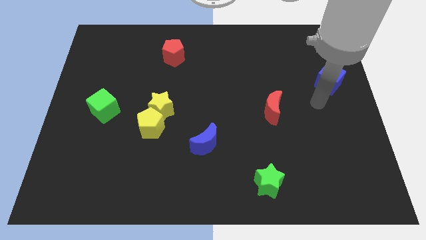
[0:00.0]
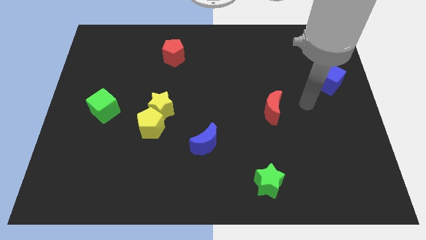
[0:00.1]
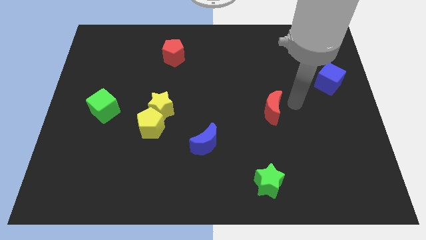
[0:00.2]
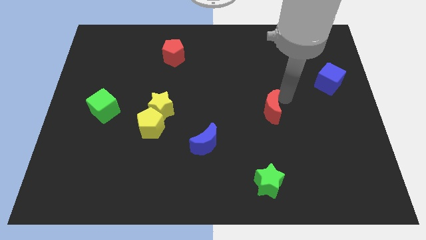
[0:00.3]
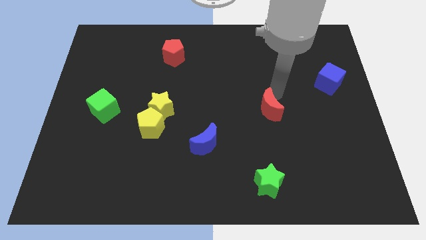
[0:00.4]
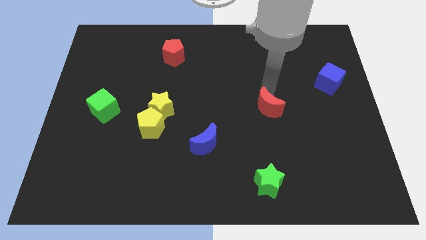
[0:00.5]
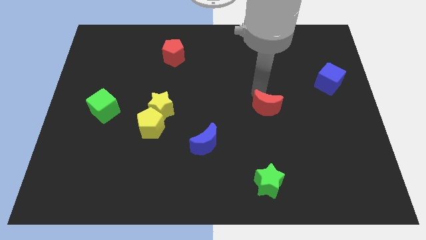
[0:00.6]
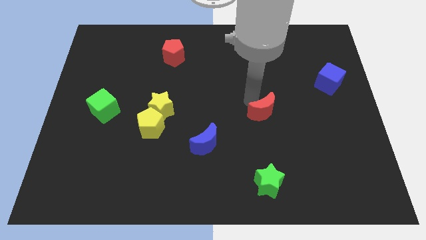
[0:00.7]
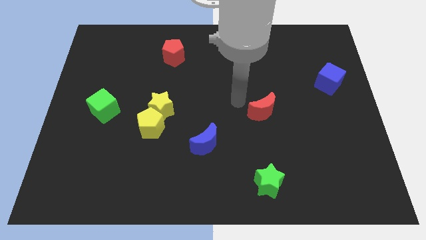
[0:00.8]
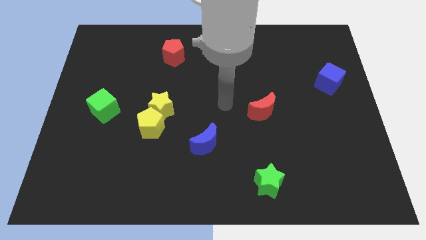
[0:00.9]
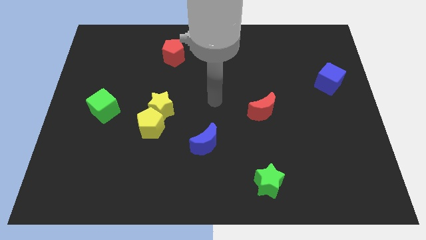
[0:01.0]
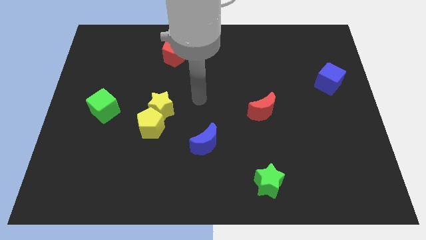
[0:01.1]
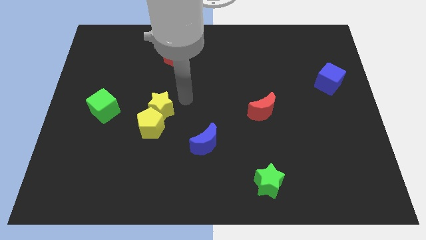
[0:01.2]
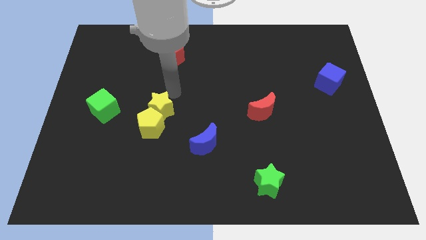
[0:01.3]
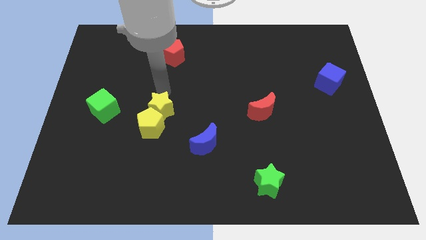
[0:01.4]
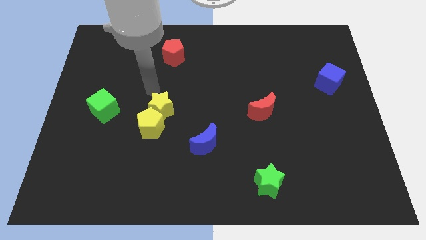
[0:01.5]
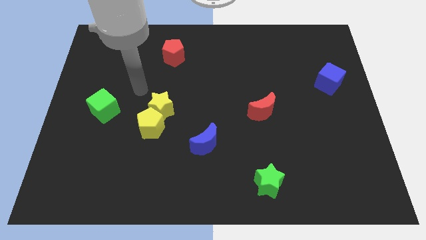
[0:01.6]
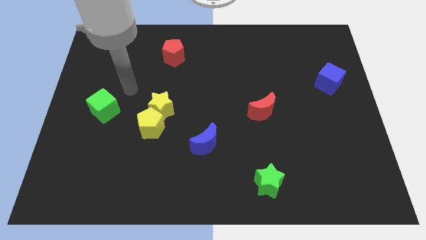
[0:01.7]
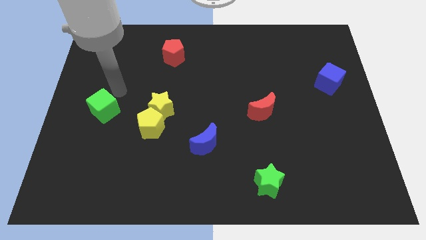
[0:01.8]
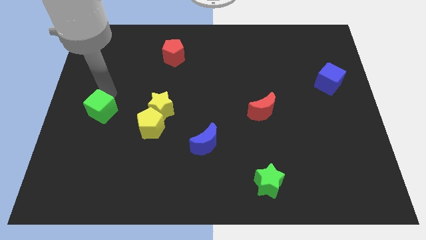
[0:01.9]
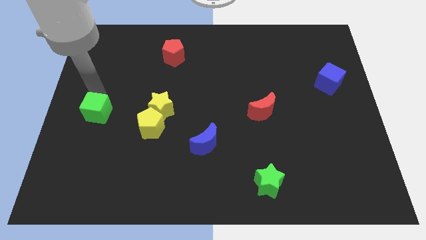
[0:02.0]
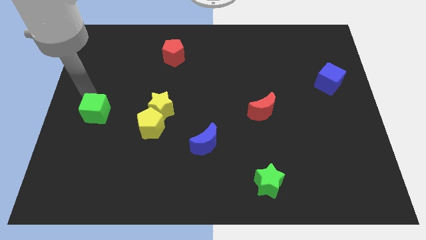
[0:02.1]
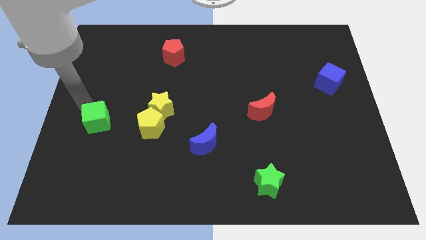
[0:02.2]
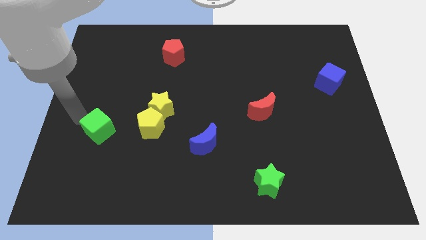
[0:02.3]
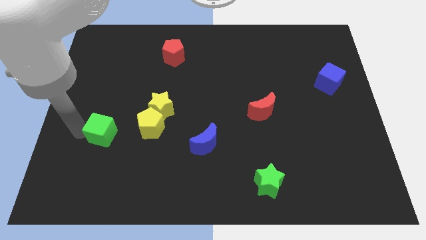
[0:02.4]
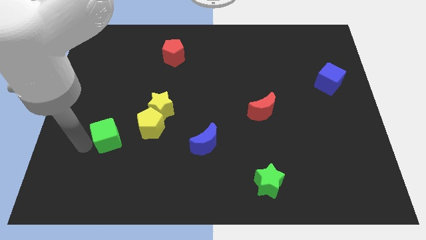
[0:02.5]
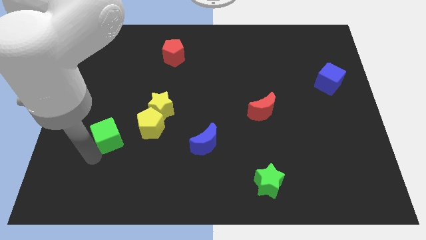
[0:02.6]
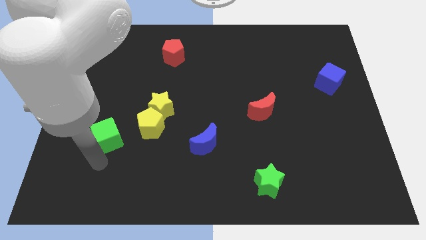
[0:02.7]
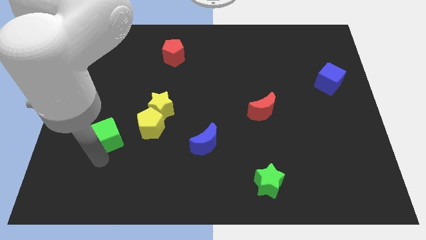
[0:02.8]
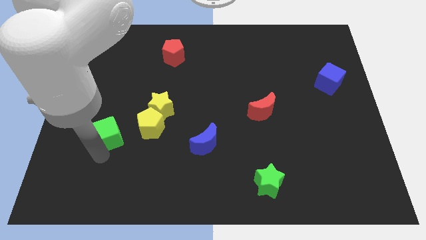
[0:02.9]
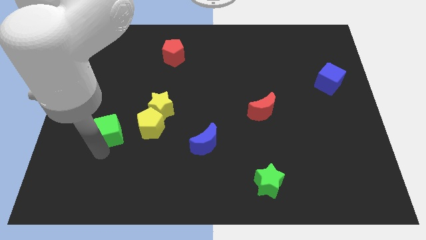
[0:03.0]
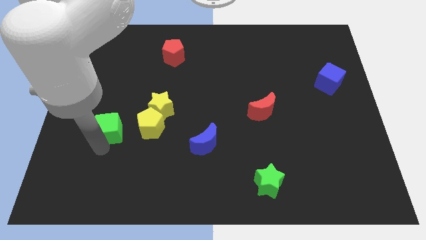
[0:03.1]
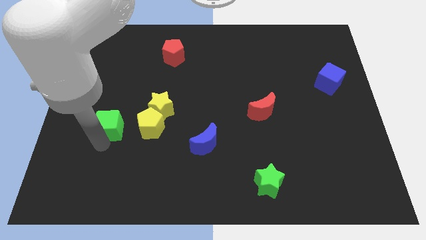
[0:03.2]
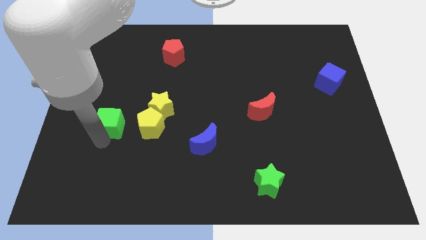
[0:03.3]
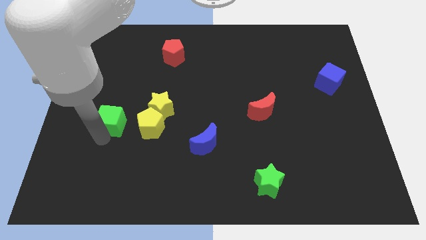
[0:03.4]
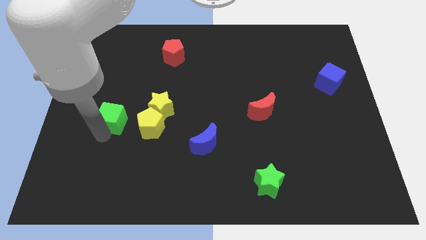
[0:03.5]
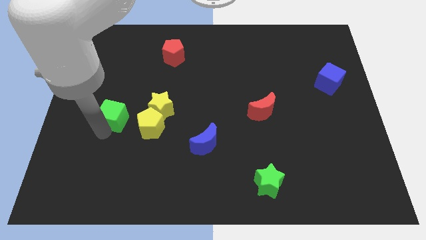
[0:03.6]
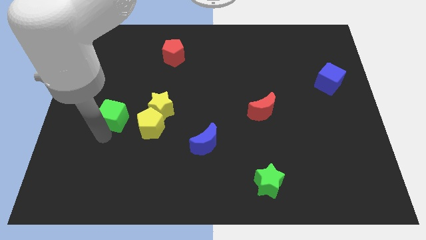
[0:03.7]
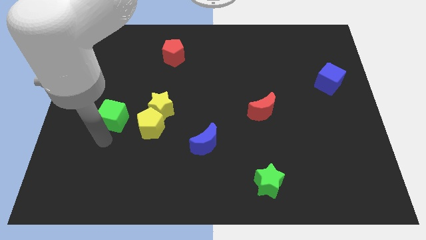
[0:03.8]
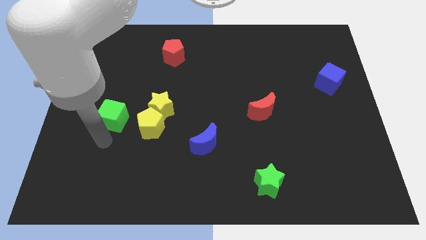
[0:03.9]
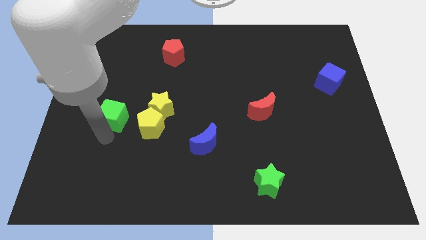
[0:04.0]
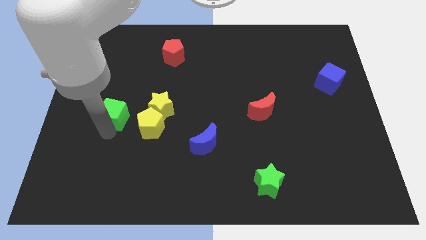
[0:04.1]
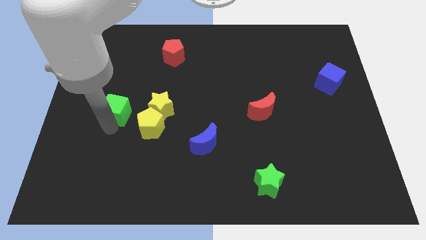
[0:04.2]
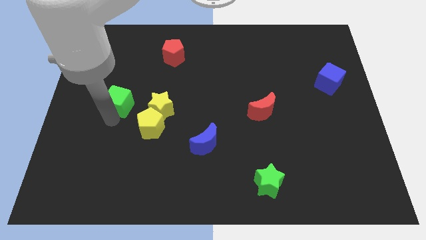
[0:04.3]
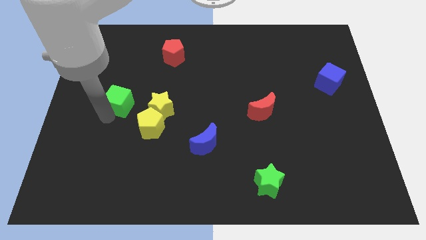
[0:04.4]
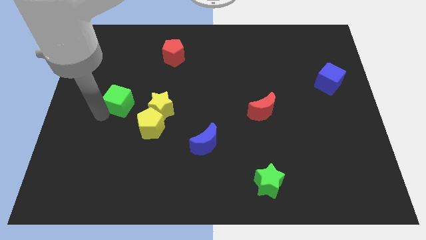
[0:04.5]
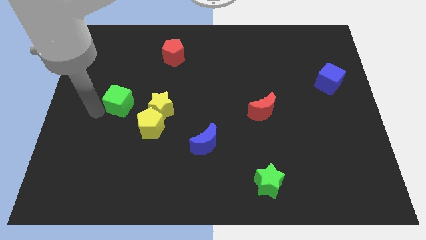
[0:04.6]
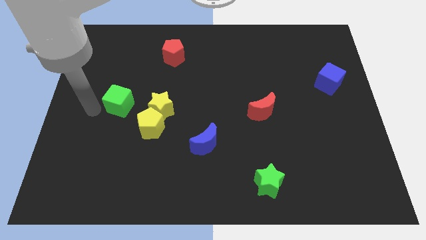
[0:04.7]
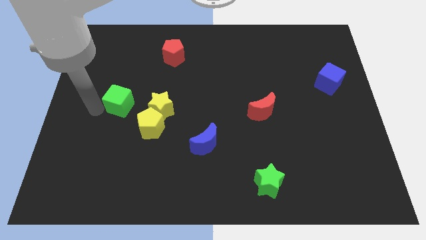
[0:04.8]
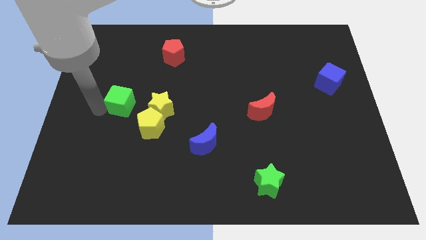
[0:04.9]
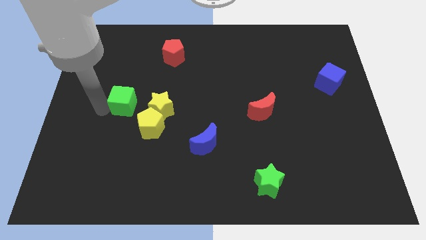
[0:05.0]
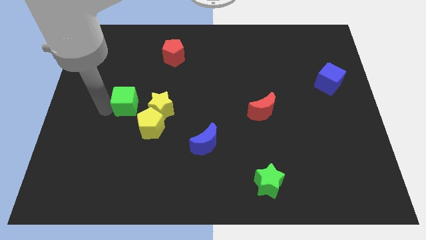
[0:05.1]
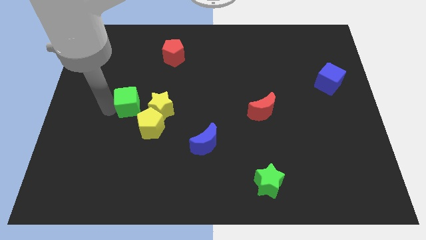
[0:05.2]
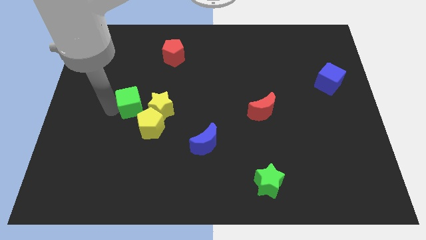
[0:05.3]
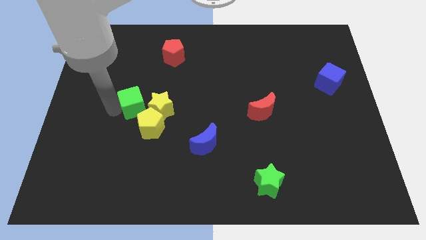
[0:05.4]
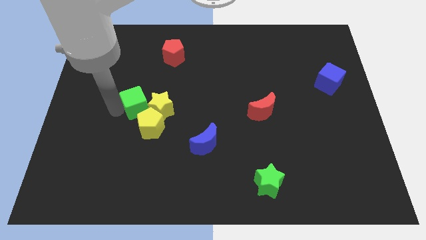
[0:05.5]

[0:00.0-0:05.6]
move the green cube to the right a bit

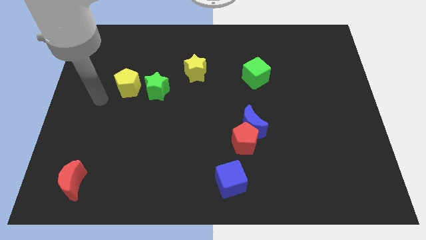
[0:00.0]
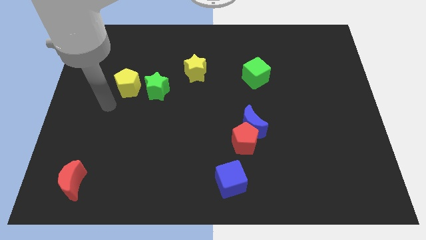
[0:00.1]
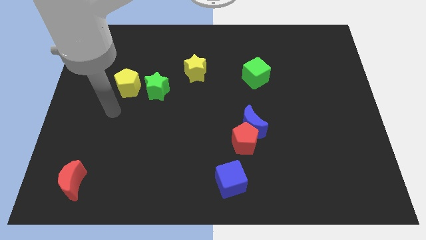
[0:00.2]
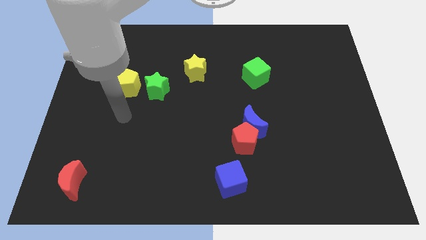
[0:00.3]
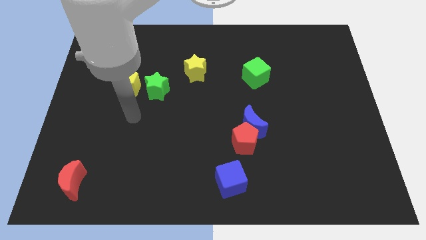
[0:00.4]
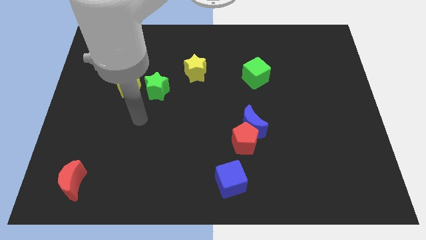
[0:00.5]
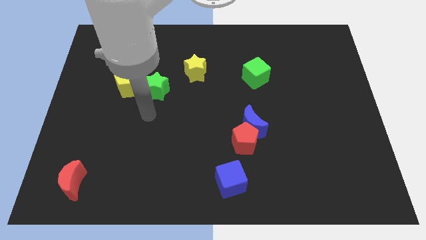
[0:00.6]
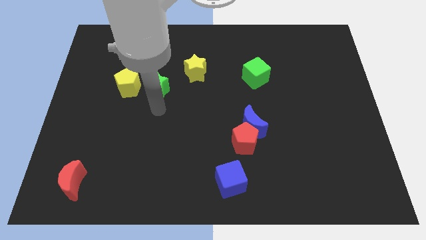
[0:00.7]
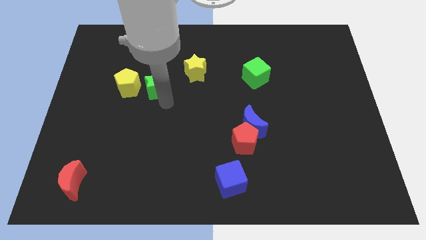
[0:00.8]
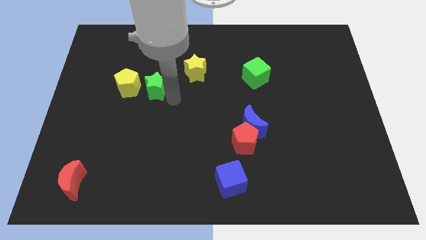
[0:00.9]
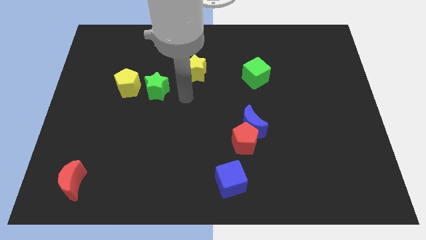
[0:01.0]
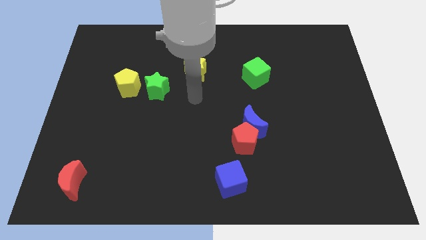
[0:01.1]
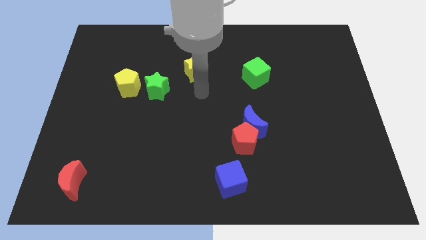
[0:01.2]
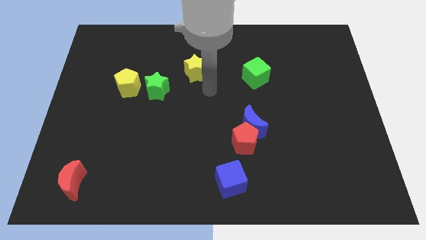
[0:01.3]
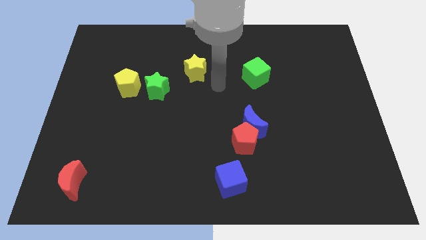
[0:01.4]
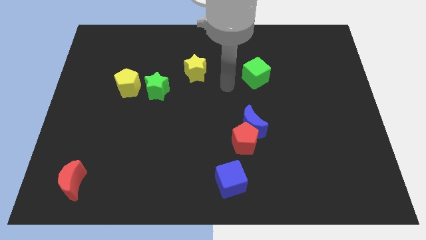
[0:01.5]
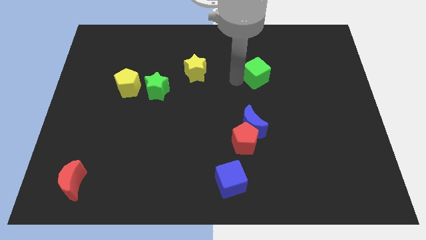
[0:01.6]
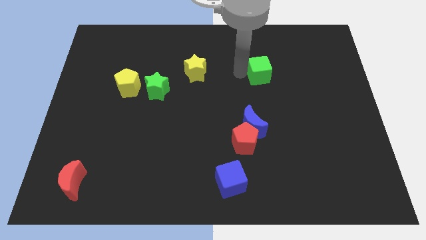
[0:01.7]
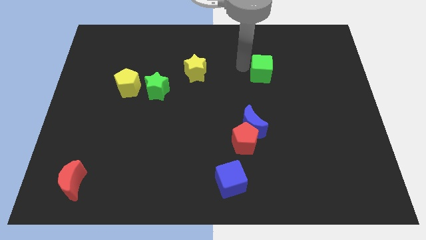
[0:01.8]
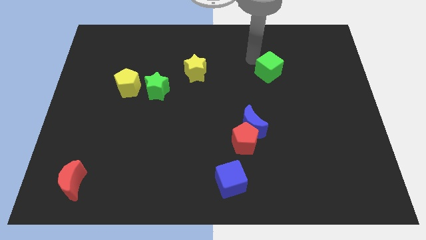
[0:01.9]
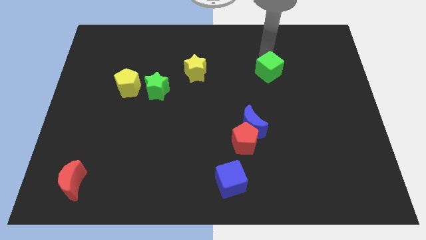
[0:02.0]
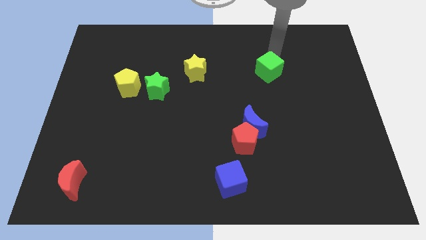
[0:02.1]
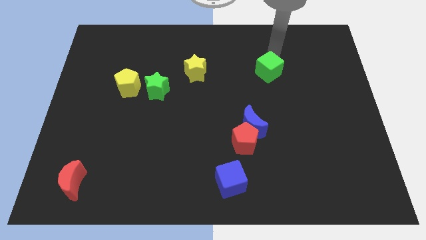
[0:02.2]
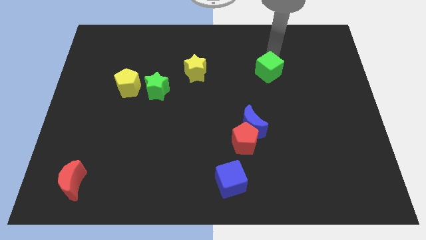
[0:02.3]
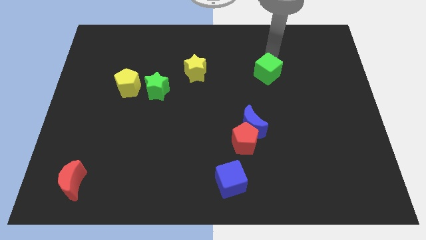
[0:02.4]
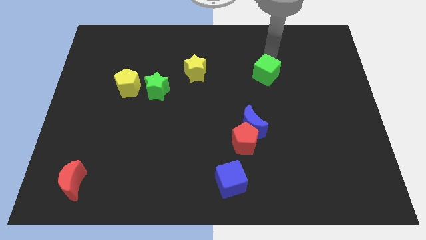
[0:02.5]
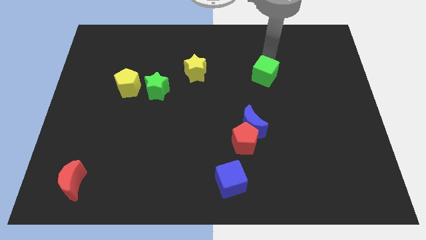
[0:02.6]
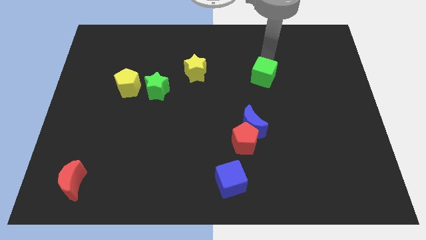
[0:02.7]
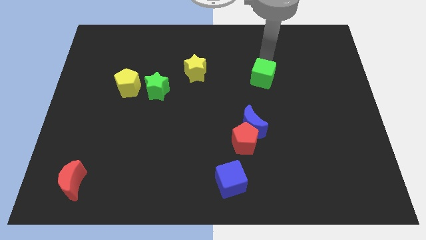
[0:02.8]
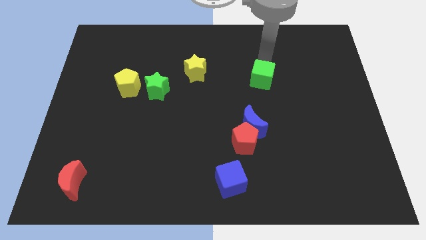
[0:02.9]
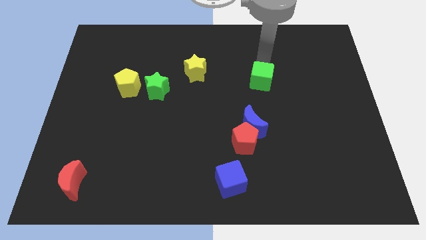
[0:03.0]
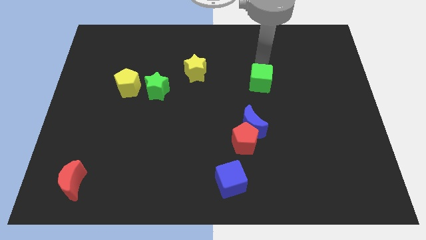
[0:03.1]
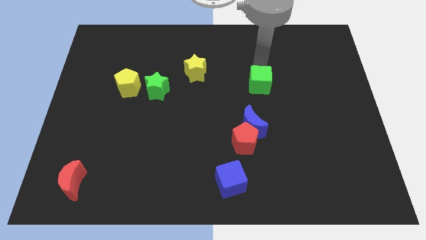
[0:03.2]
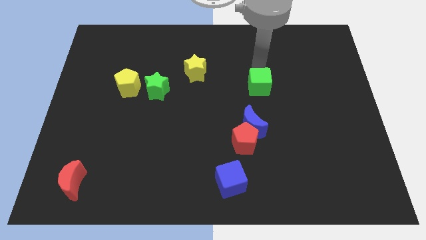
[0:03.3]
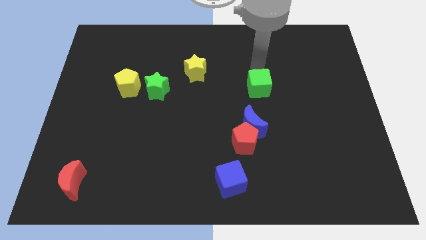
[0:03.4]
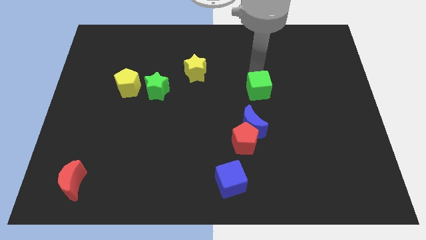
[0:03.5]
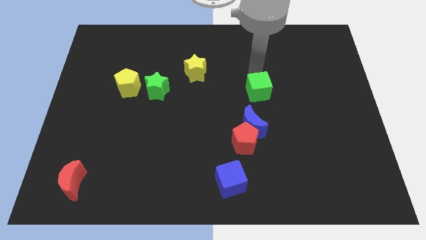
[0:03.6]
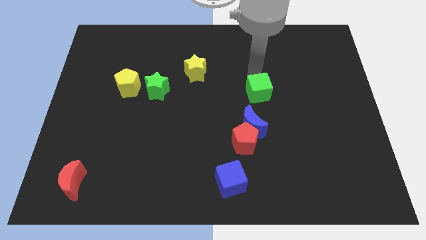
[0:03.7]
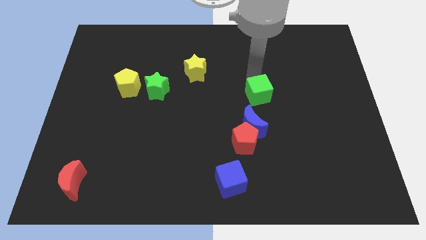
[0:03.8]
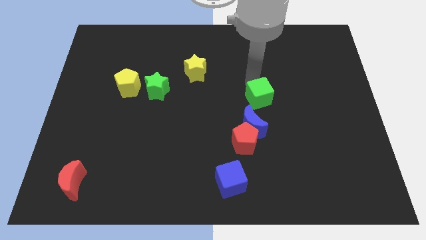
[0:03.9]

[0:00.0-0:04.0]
push the green cube a little downwards
